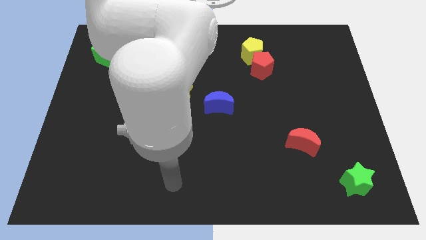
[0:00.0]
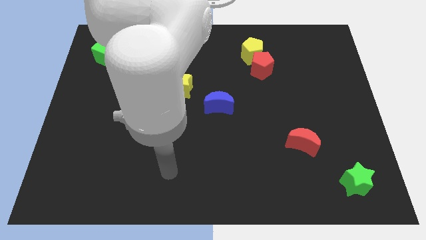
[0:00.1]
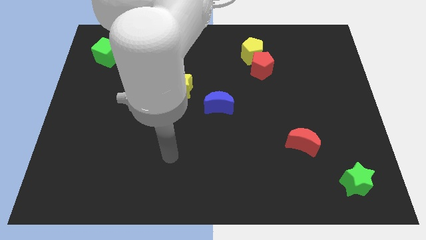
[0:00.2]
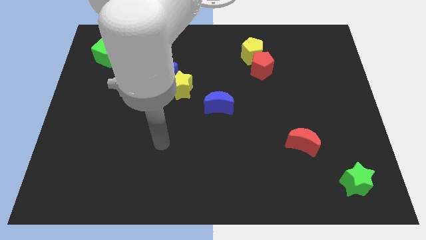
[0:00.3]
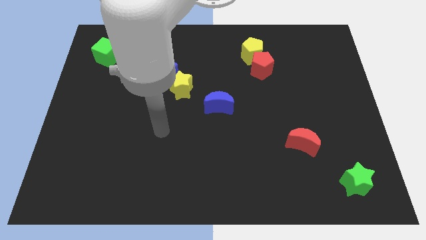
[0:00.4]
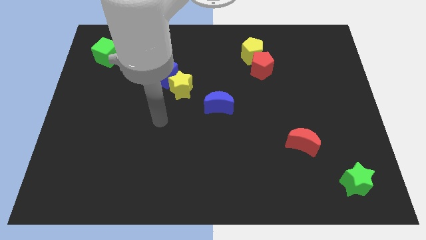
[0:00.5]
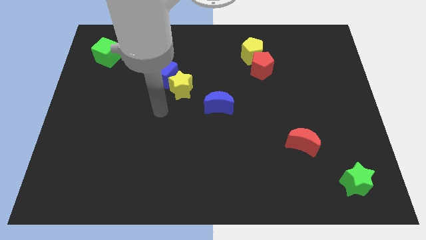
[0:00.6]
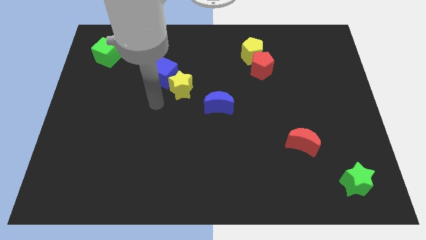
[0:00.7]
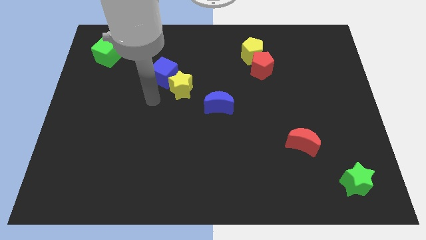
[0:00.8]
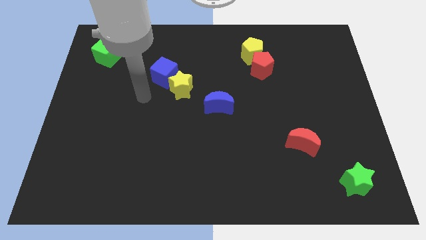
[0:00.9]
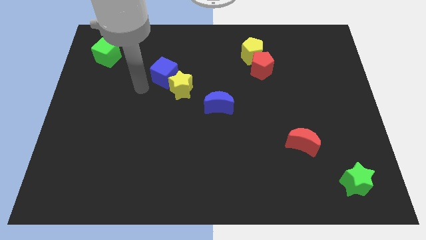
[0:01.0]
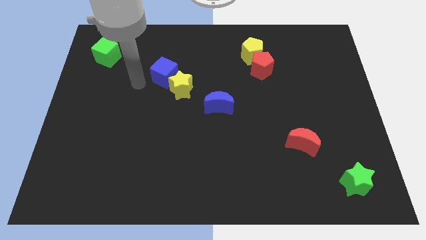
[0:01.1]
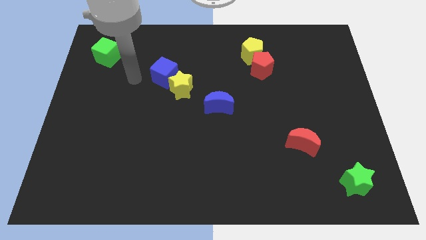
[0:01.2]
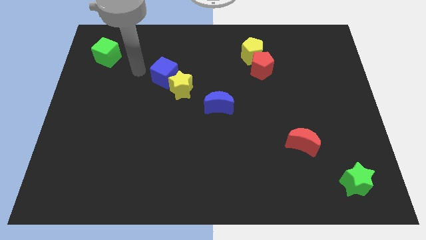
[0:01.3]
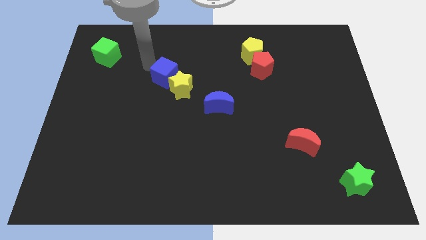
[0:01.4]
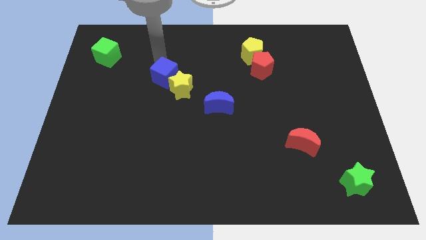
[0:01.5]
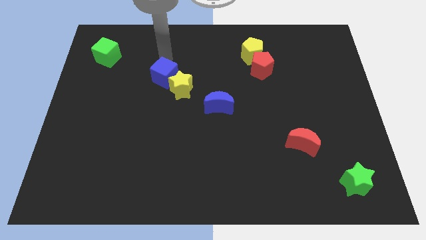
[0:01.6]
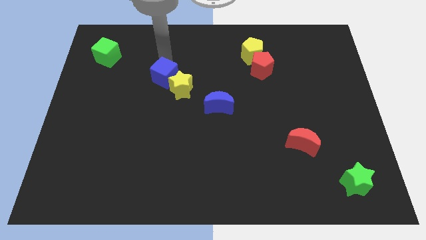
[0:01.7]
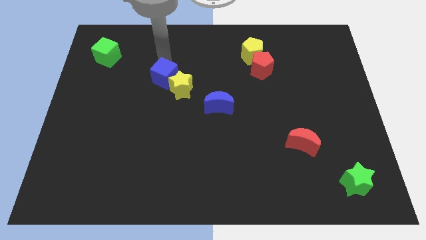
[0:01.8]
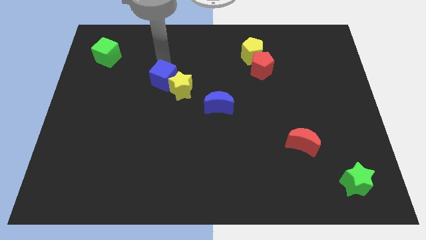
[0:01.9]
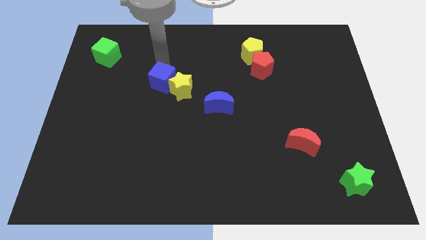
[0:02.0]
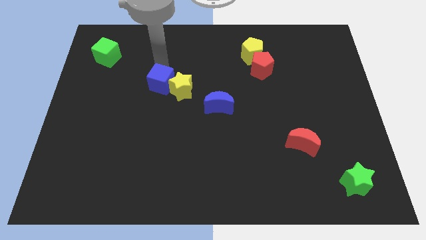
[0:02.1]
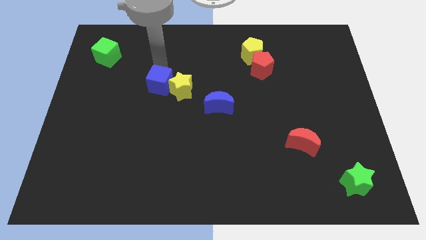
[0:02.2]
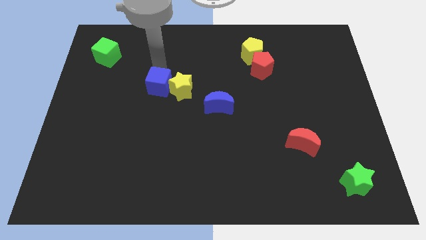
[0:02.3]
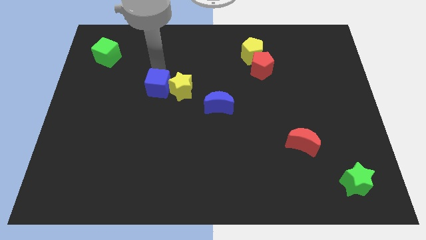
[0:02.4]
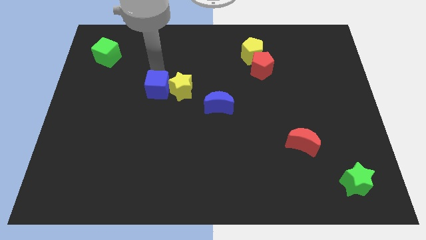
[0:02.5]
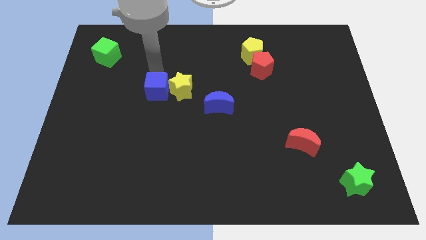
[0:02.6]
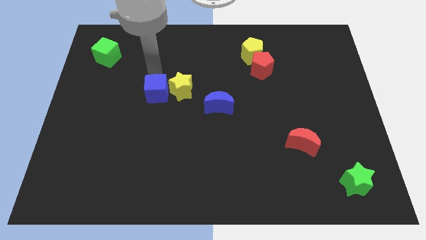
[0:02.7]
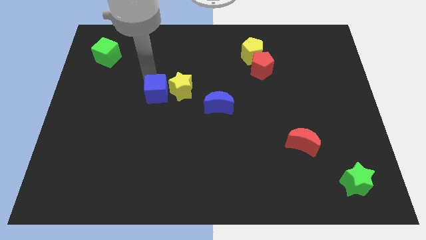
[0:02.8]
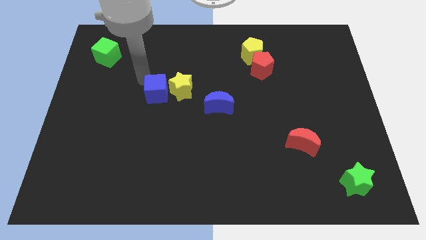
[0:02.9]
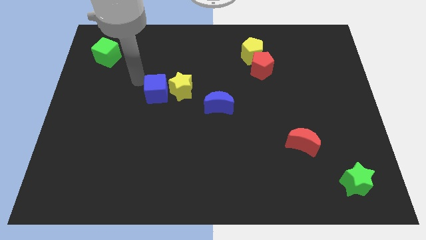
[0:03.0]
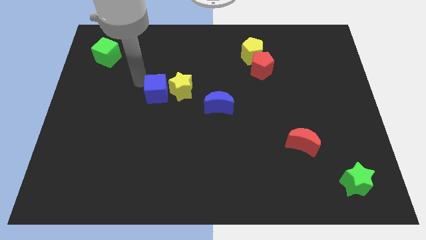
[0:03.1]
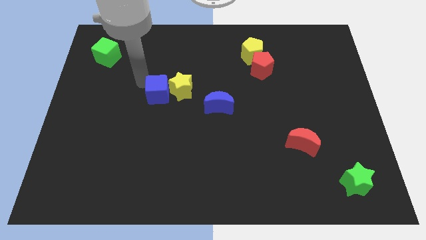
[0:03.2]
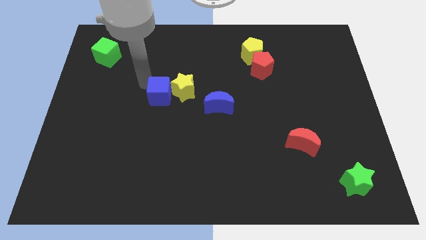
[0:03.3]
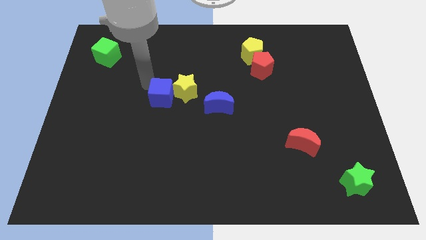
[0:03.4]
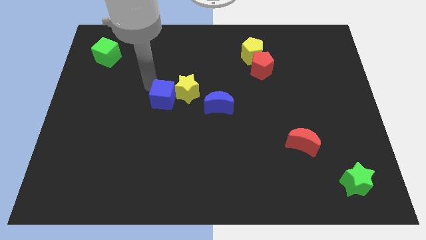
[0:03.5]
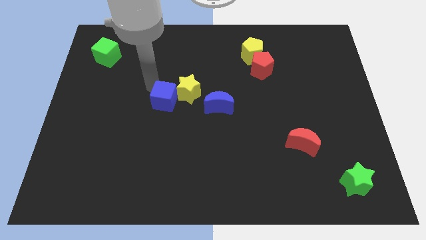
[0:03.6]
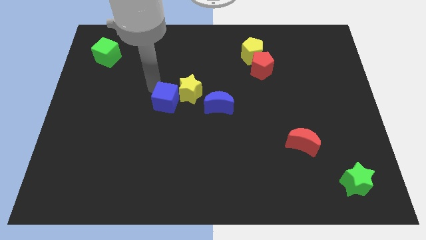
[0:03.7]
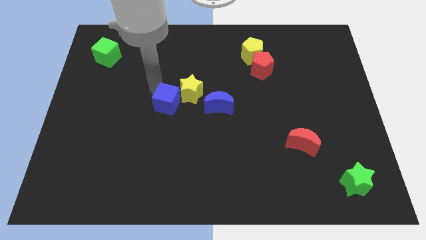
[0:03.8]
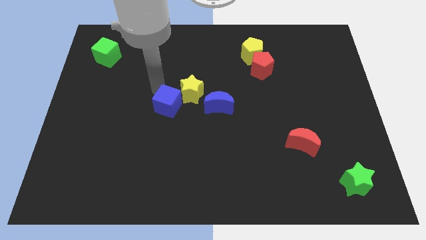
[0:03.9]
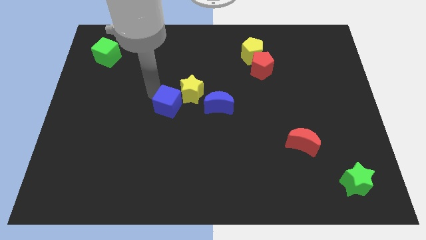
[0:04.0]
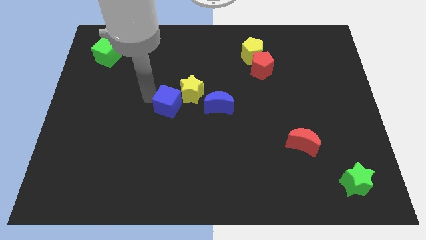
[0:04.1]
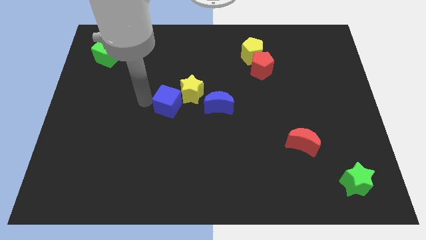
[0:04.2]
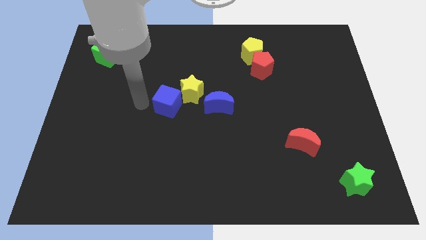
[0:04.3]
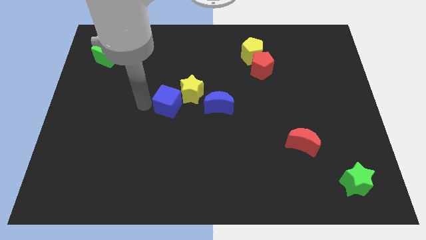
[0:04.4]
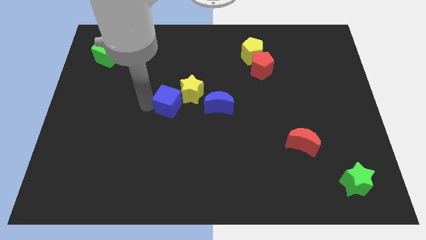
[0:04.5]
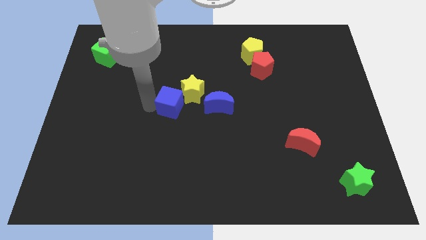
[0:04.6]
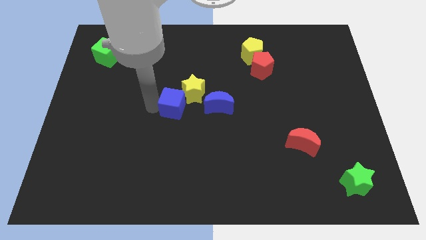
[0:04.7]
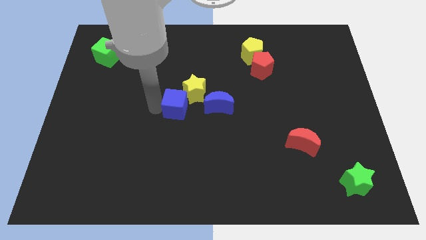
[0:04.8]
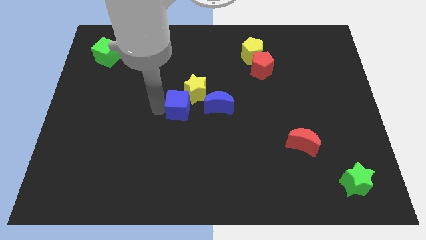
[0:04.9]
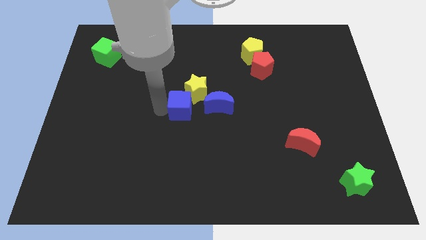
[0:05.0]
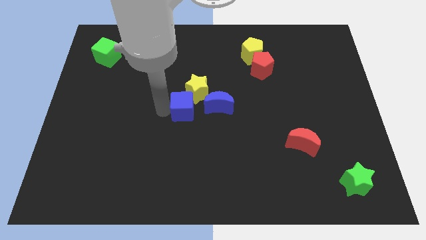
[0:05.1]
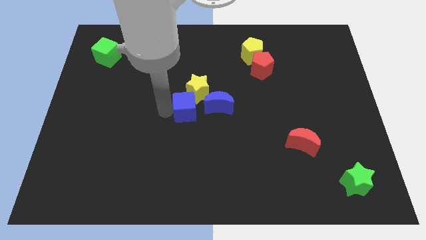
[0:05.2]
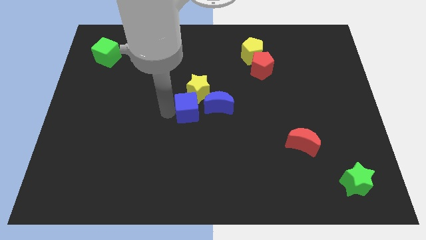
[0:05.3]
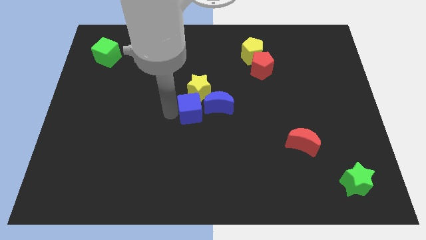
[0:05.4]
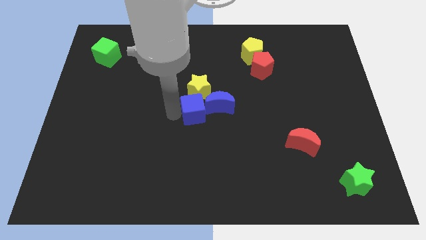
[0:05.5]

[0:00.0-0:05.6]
move the blue cube close to the blue moon

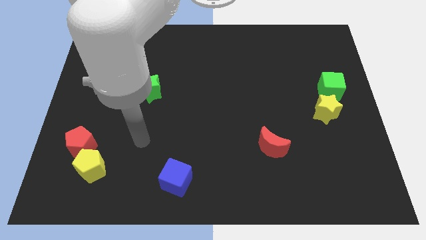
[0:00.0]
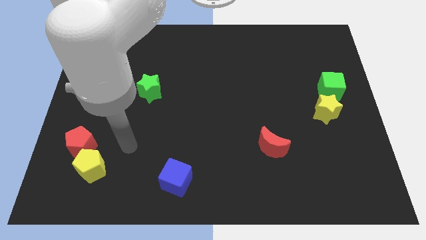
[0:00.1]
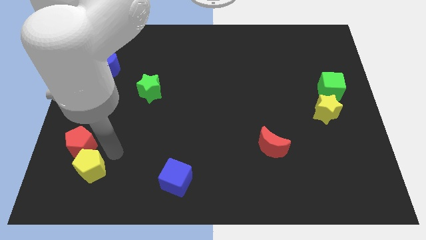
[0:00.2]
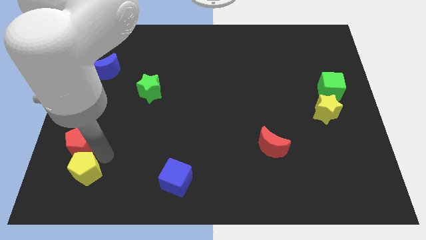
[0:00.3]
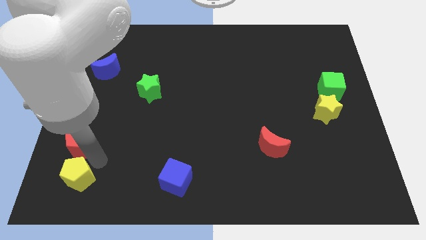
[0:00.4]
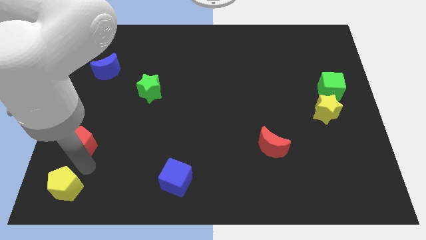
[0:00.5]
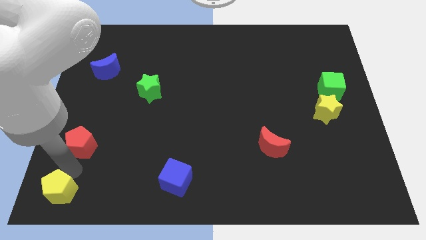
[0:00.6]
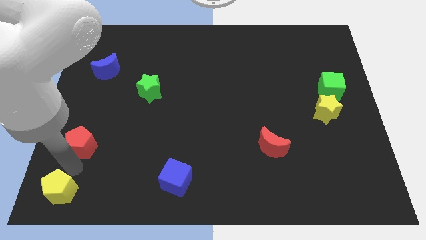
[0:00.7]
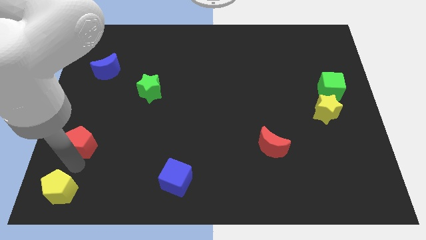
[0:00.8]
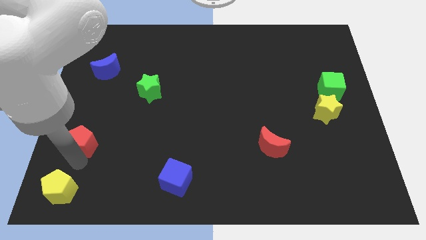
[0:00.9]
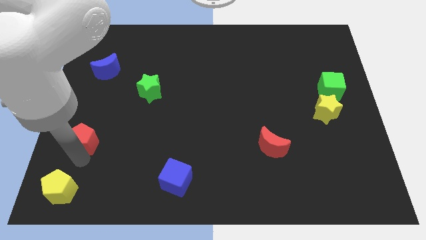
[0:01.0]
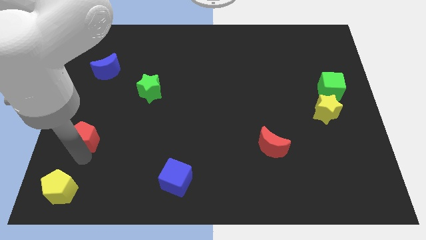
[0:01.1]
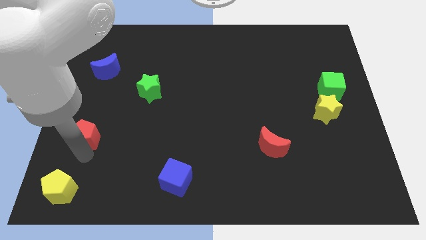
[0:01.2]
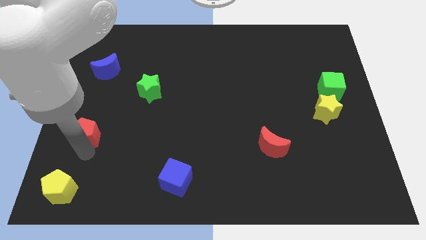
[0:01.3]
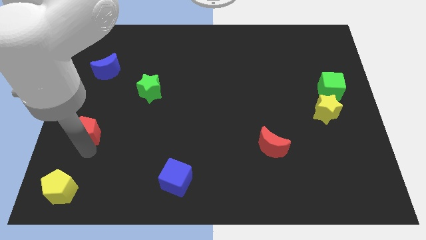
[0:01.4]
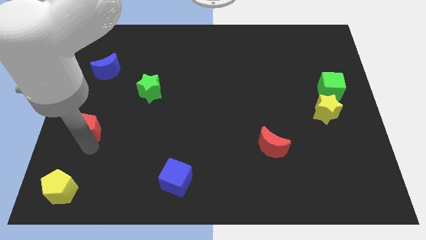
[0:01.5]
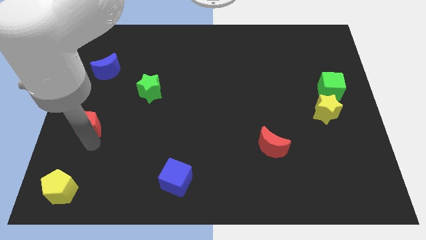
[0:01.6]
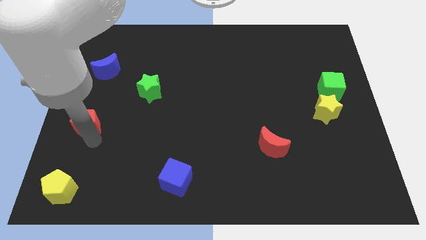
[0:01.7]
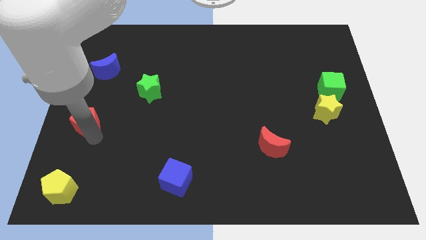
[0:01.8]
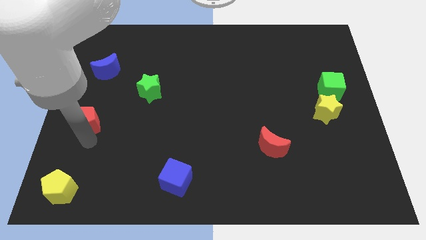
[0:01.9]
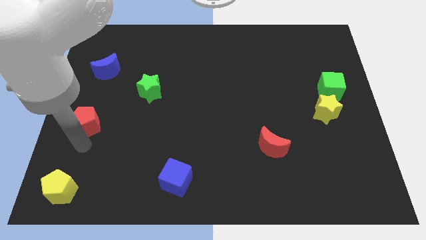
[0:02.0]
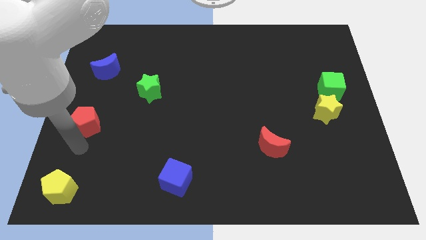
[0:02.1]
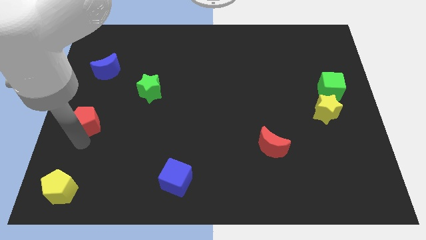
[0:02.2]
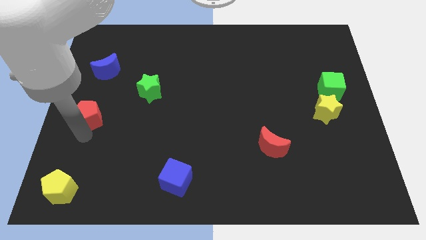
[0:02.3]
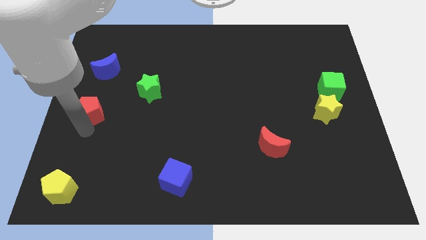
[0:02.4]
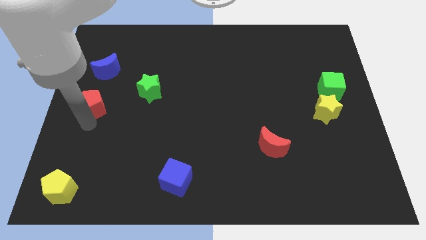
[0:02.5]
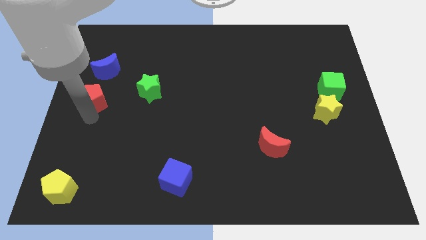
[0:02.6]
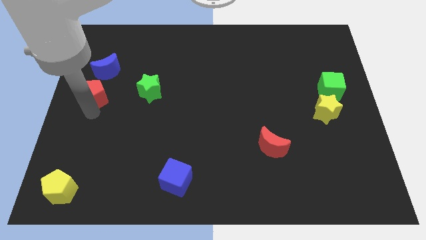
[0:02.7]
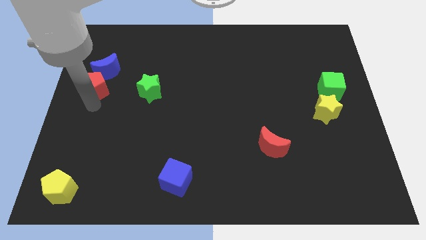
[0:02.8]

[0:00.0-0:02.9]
slide the red pentagon towards the blue moon
